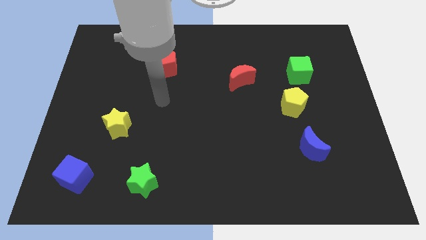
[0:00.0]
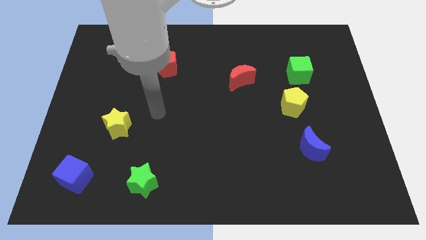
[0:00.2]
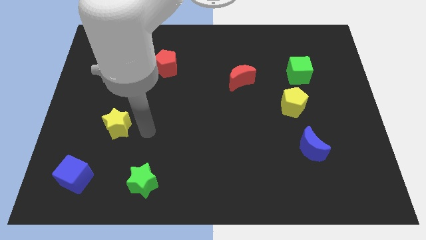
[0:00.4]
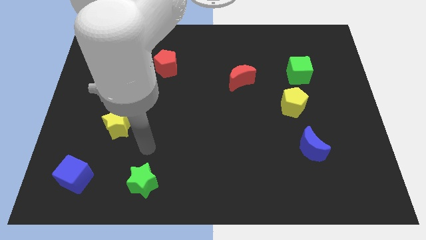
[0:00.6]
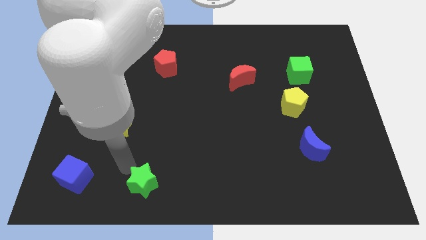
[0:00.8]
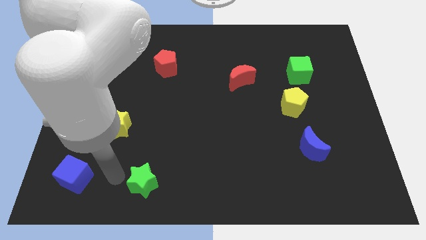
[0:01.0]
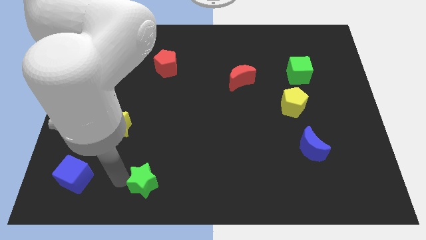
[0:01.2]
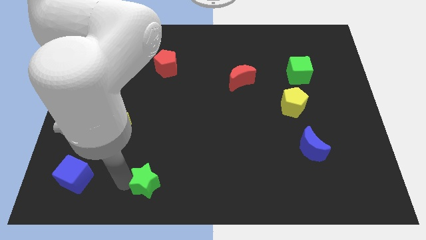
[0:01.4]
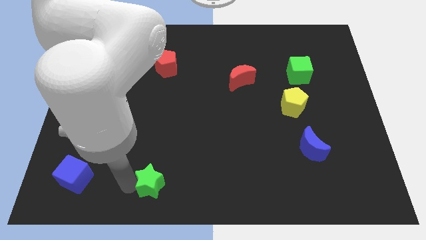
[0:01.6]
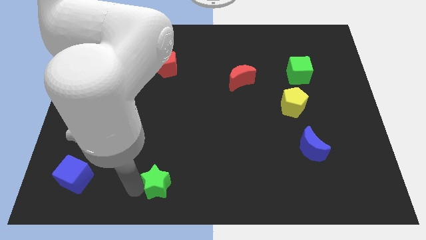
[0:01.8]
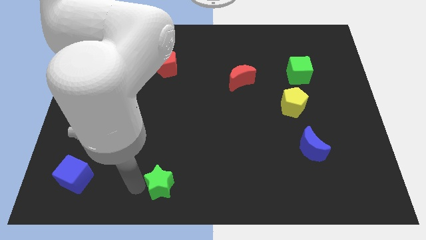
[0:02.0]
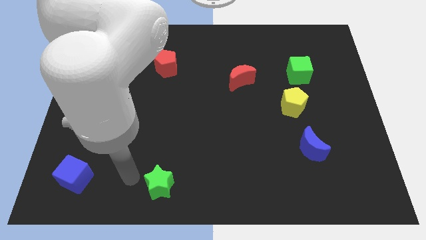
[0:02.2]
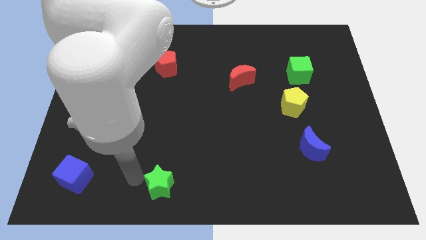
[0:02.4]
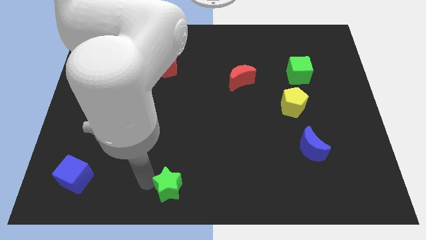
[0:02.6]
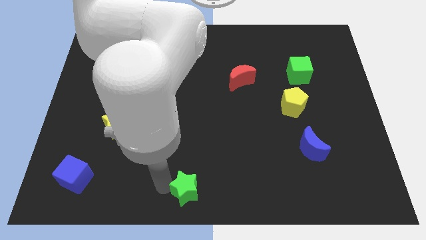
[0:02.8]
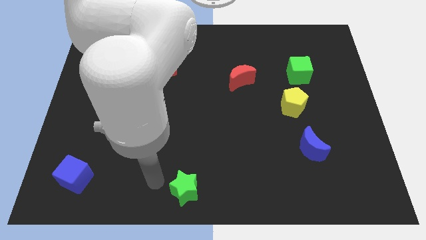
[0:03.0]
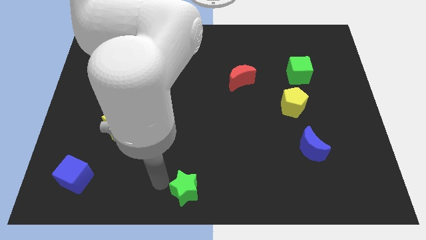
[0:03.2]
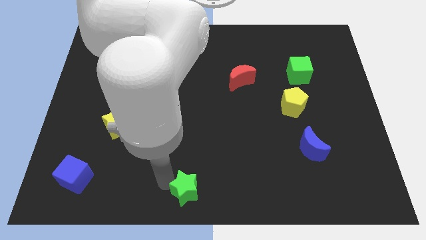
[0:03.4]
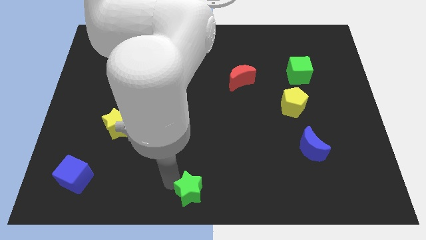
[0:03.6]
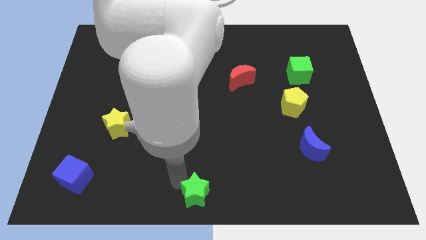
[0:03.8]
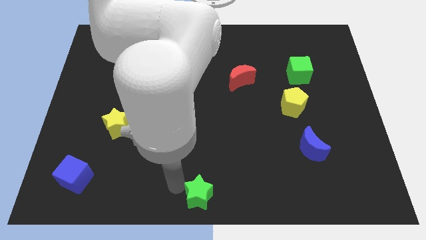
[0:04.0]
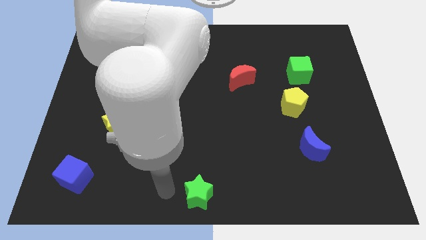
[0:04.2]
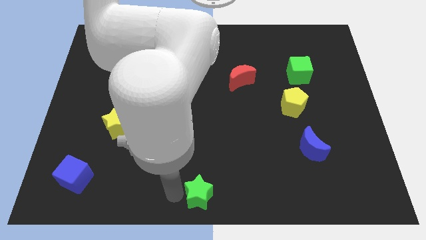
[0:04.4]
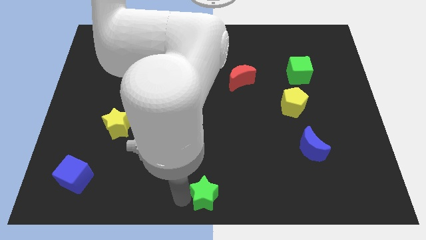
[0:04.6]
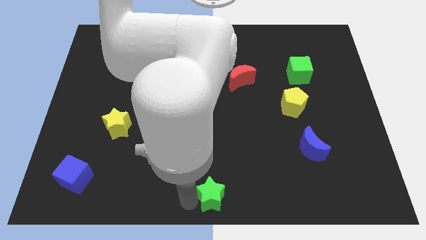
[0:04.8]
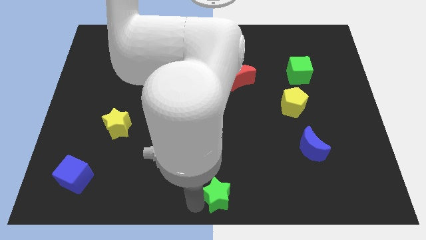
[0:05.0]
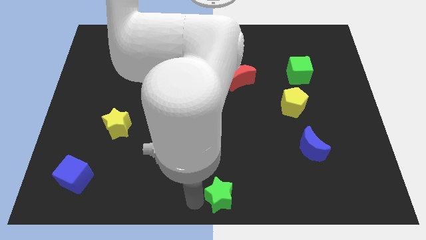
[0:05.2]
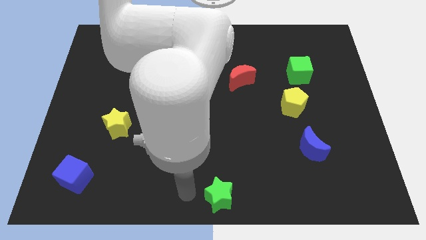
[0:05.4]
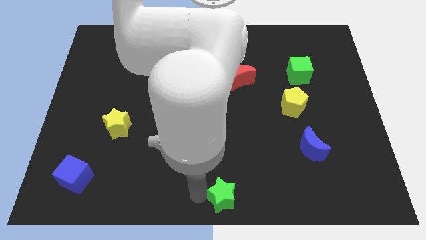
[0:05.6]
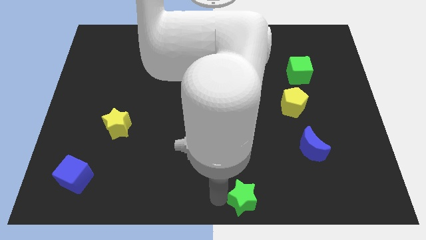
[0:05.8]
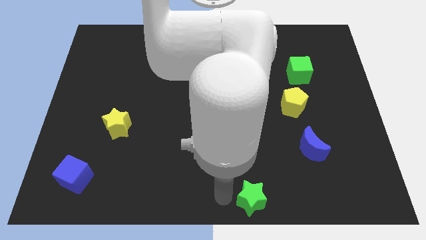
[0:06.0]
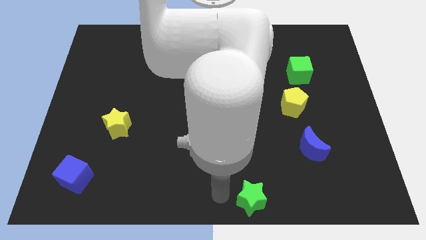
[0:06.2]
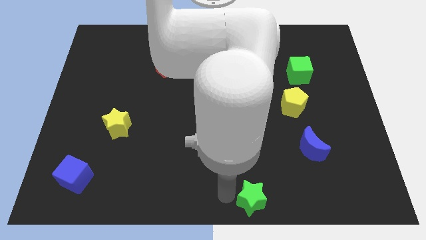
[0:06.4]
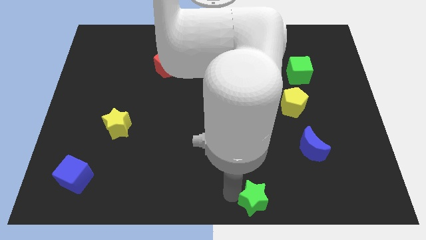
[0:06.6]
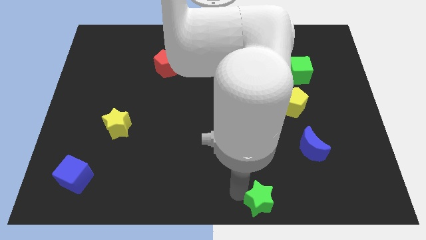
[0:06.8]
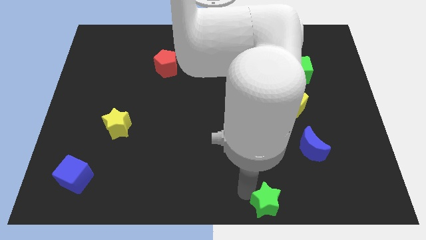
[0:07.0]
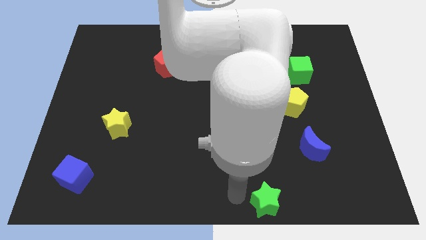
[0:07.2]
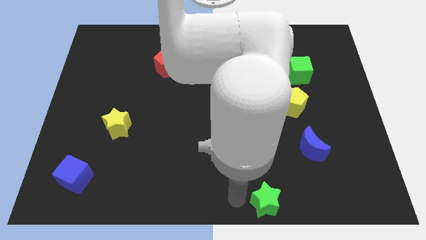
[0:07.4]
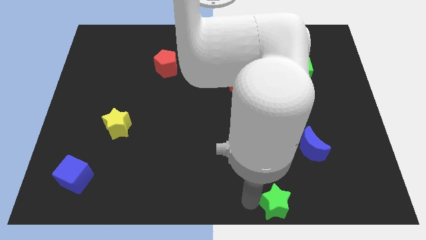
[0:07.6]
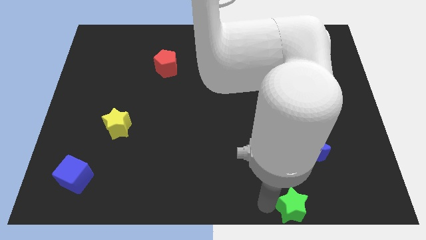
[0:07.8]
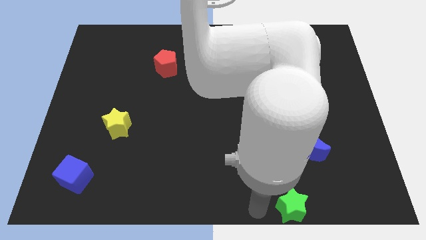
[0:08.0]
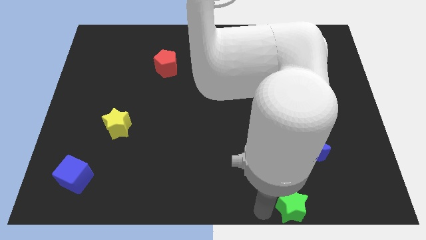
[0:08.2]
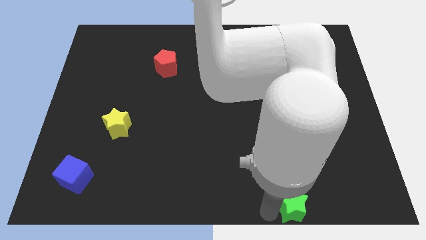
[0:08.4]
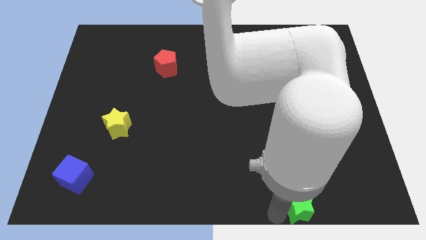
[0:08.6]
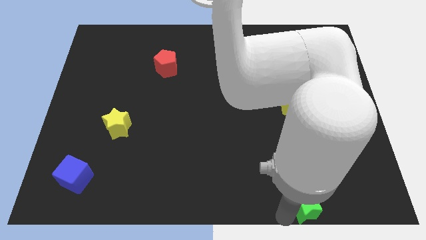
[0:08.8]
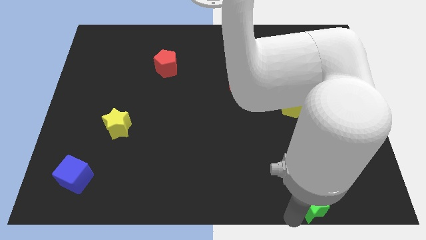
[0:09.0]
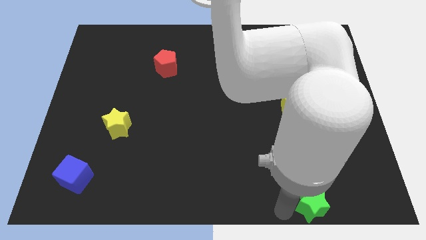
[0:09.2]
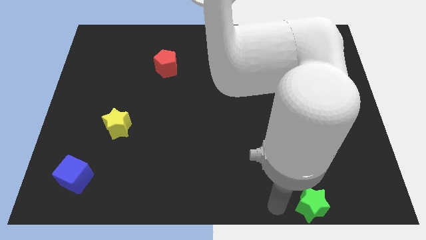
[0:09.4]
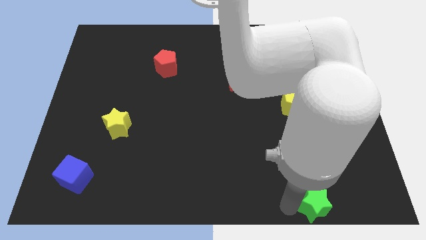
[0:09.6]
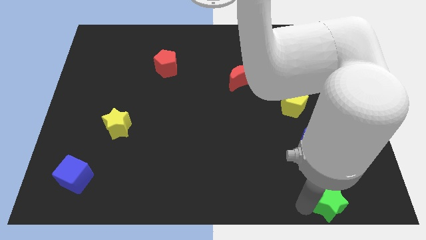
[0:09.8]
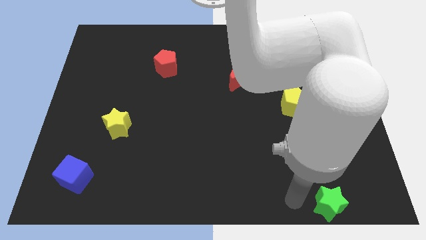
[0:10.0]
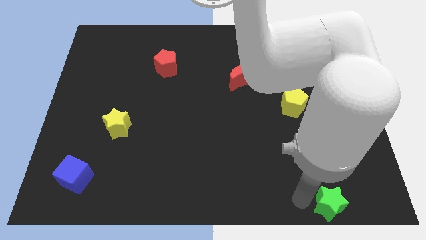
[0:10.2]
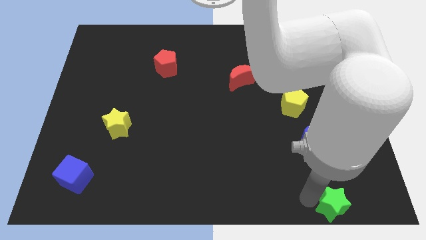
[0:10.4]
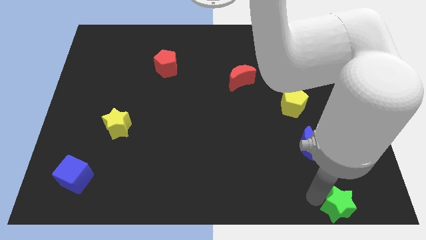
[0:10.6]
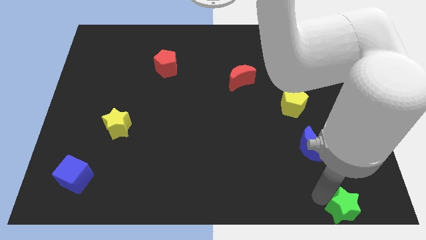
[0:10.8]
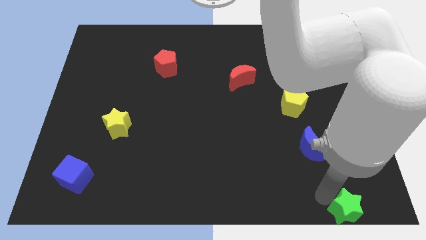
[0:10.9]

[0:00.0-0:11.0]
put the green star to the bottom right

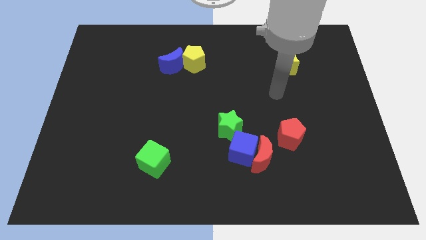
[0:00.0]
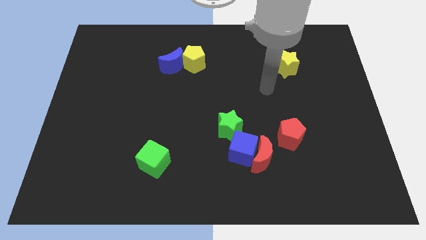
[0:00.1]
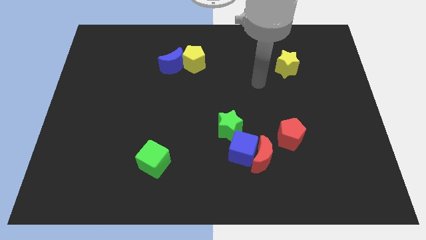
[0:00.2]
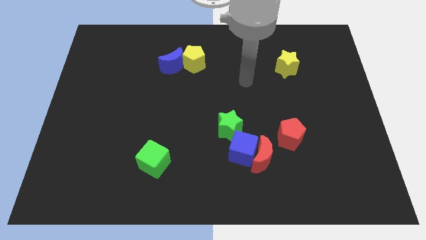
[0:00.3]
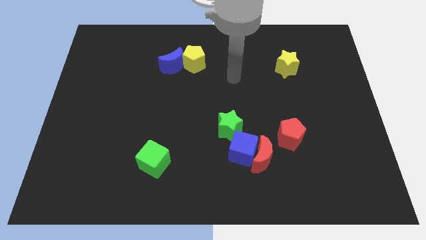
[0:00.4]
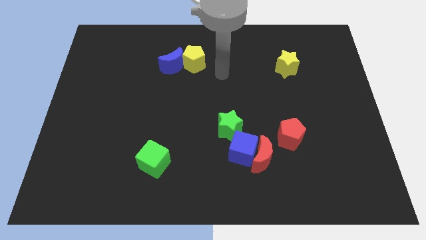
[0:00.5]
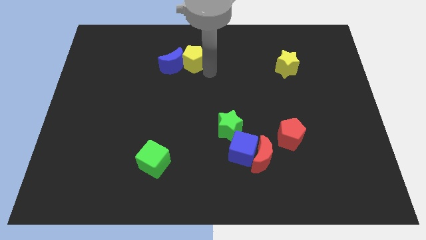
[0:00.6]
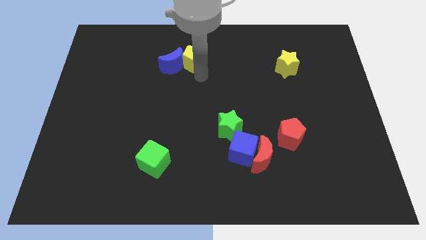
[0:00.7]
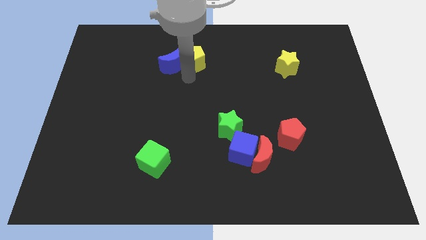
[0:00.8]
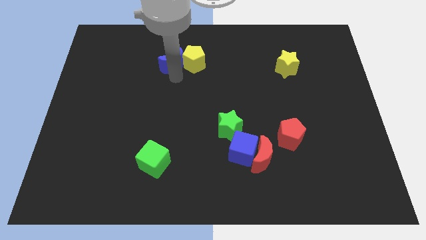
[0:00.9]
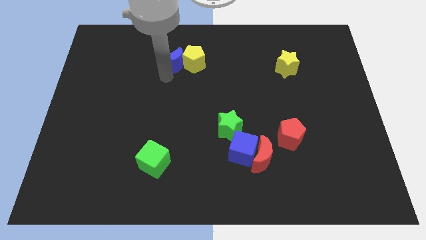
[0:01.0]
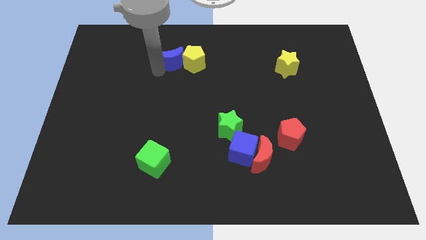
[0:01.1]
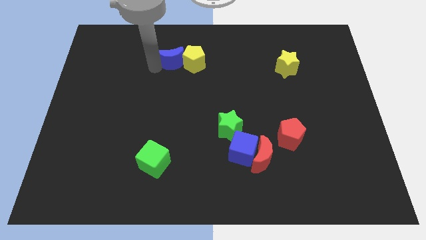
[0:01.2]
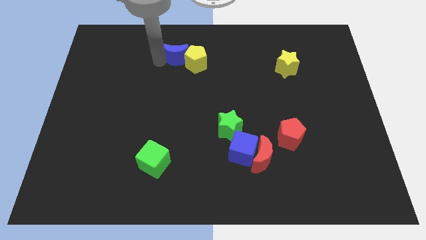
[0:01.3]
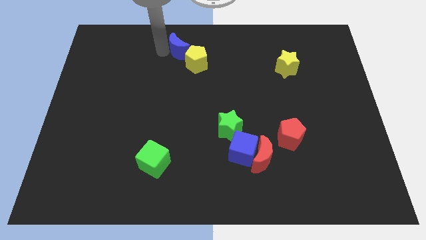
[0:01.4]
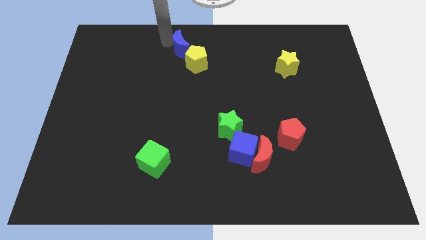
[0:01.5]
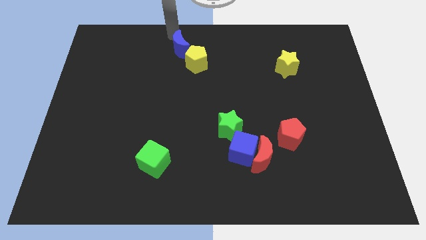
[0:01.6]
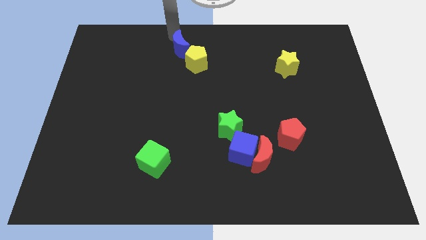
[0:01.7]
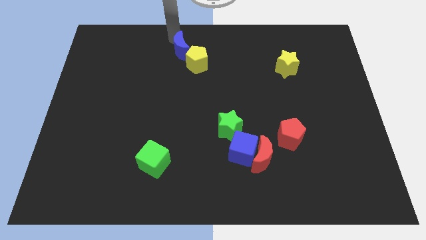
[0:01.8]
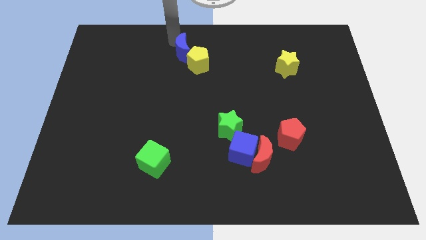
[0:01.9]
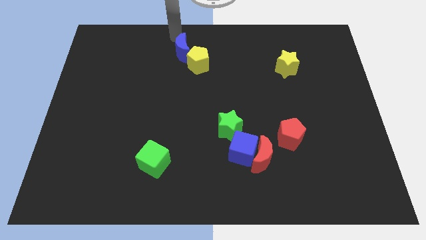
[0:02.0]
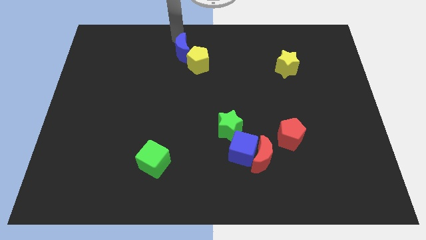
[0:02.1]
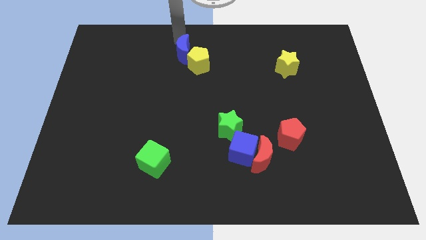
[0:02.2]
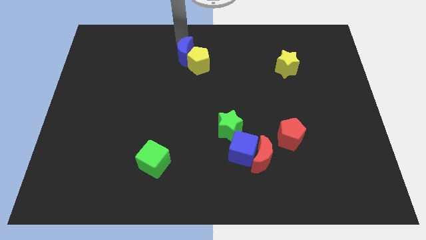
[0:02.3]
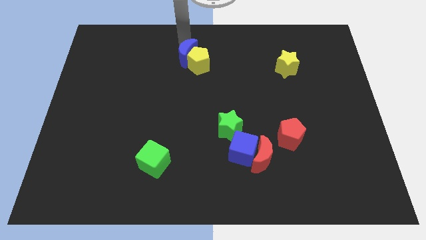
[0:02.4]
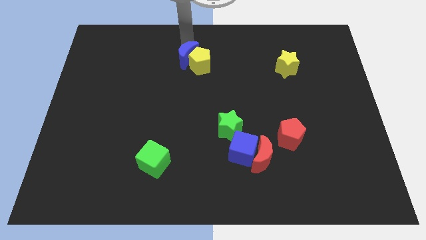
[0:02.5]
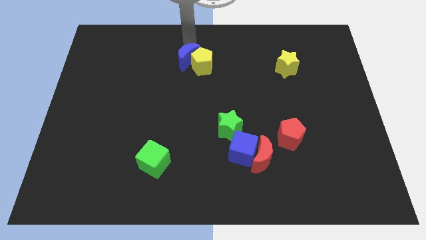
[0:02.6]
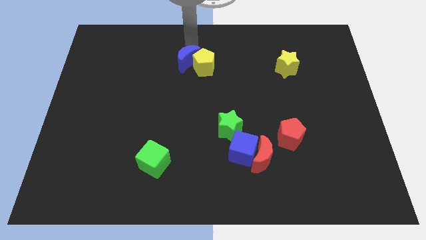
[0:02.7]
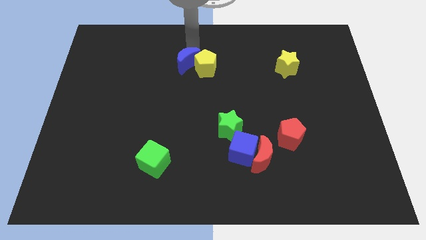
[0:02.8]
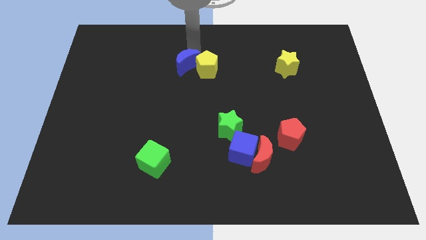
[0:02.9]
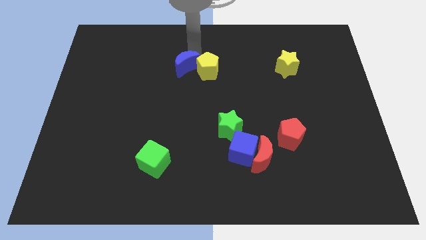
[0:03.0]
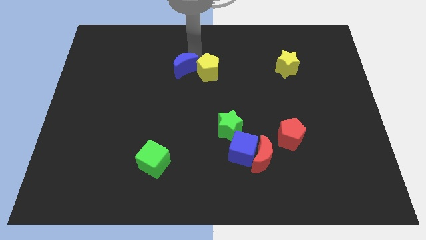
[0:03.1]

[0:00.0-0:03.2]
push the blue moon to the middle of the board
